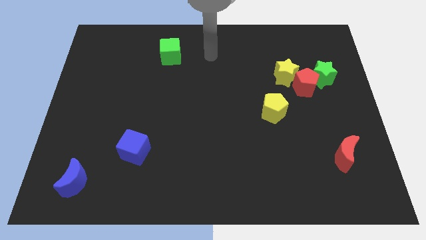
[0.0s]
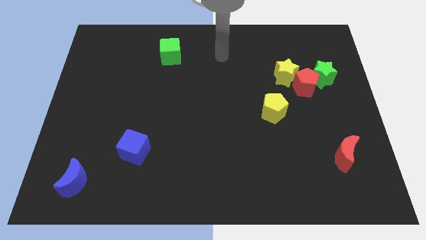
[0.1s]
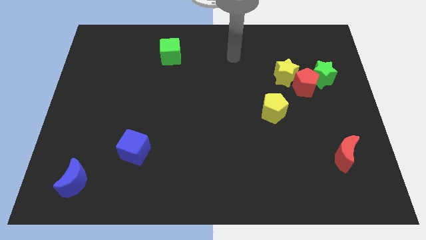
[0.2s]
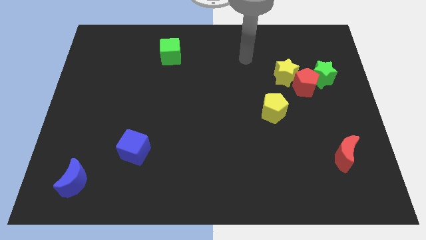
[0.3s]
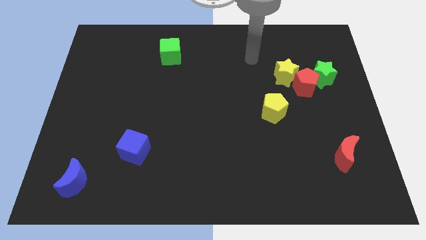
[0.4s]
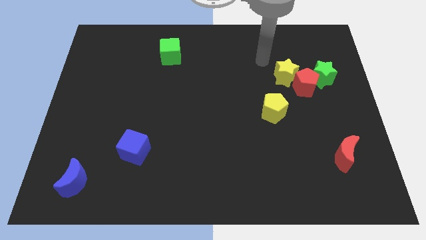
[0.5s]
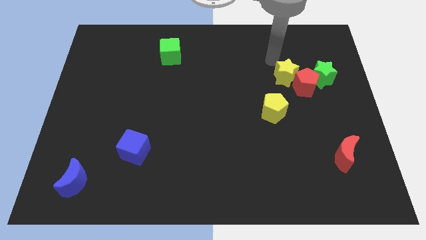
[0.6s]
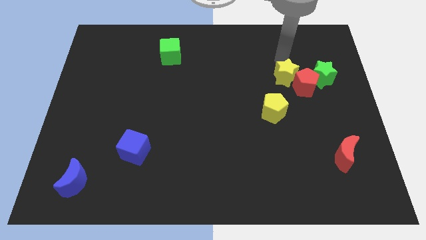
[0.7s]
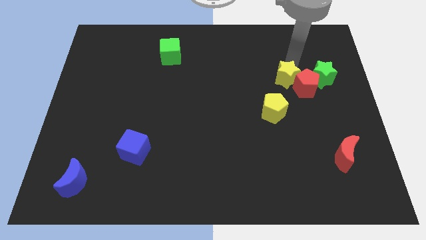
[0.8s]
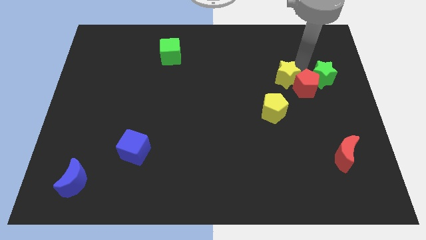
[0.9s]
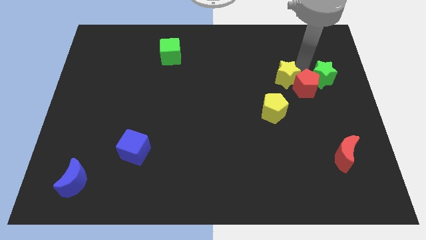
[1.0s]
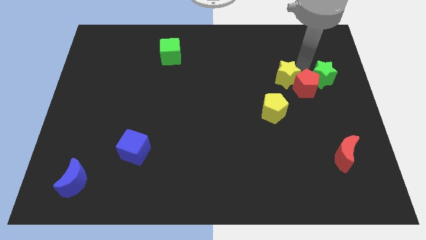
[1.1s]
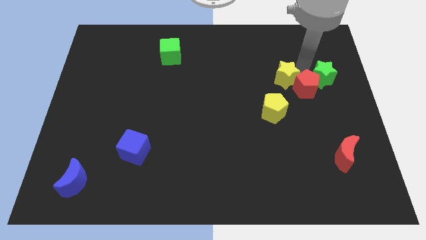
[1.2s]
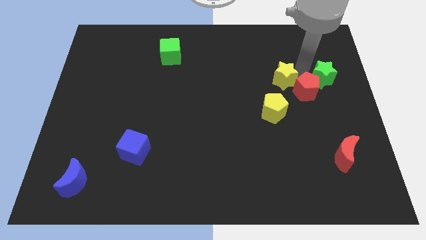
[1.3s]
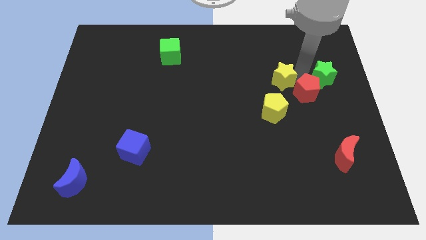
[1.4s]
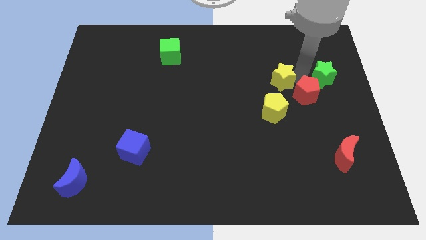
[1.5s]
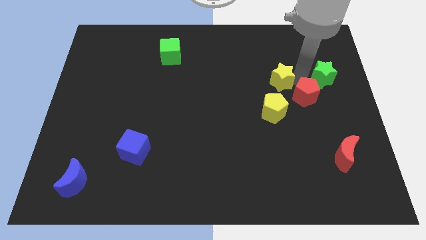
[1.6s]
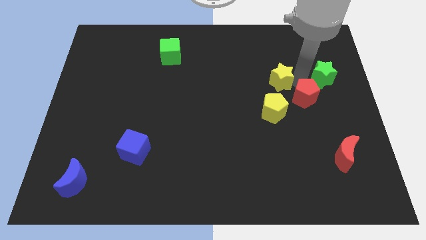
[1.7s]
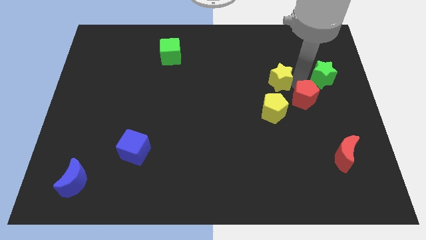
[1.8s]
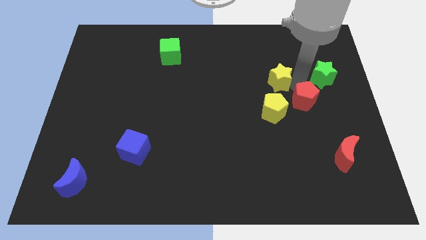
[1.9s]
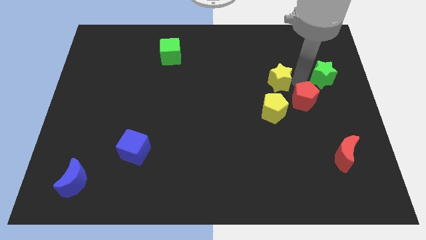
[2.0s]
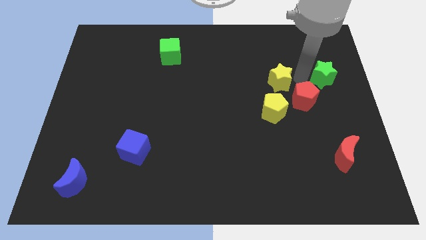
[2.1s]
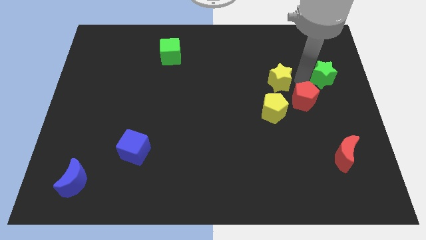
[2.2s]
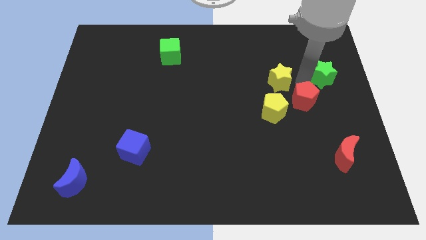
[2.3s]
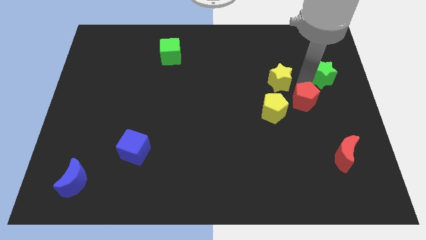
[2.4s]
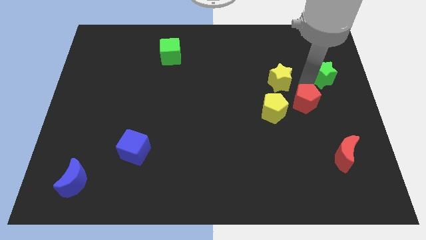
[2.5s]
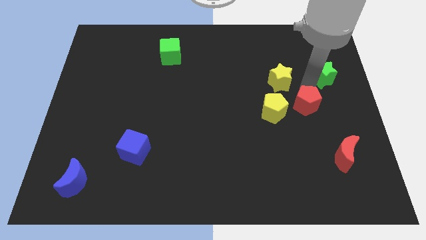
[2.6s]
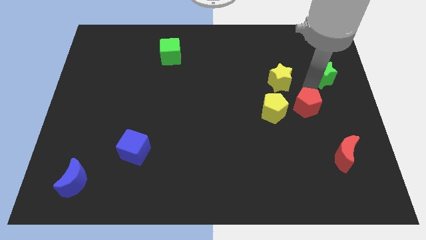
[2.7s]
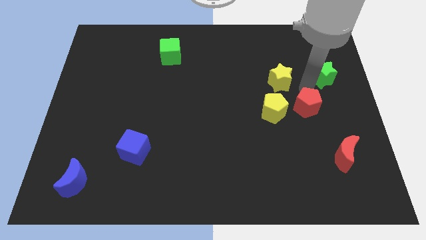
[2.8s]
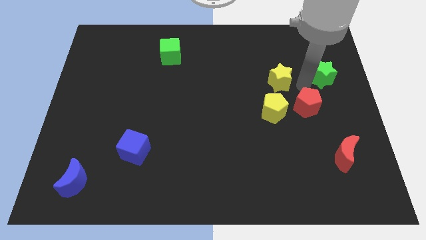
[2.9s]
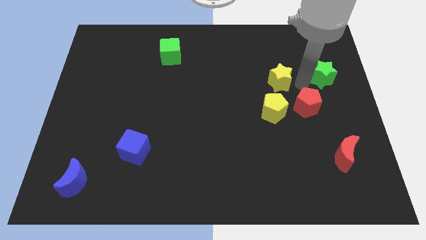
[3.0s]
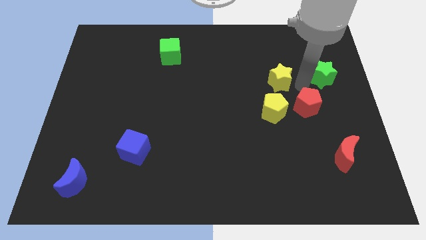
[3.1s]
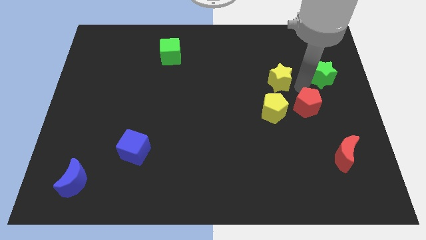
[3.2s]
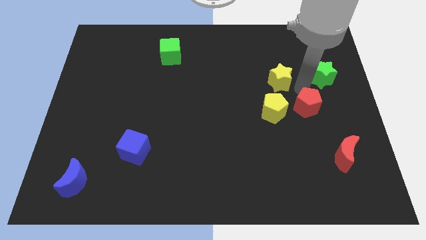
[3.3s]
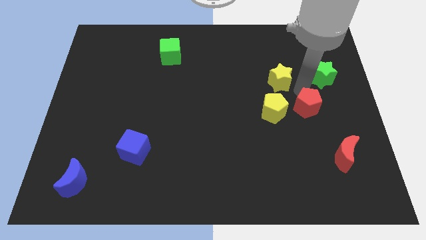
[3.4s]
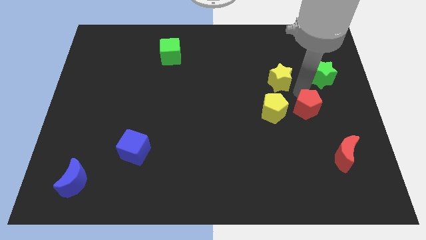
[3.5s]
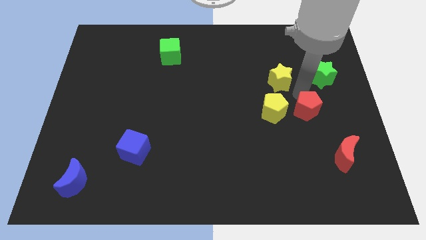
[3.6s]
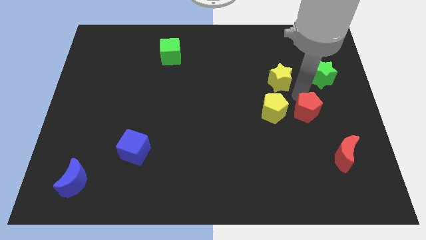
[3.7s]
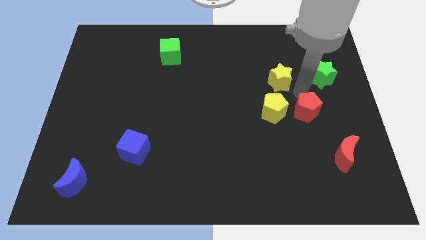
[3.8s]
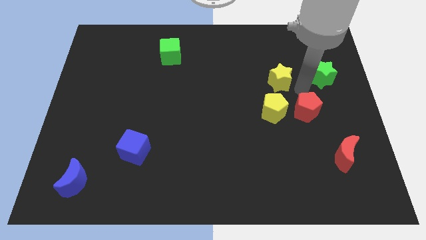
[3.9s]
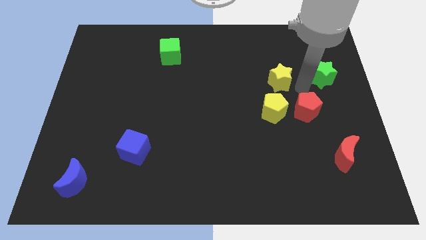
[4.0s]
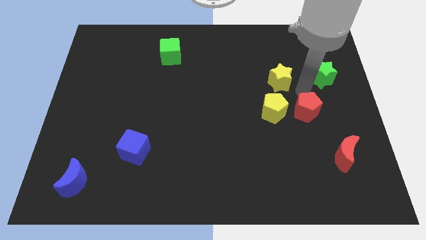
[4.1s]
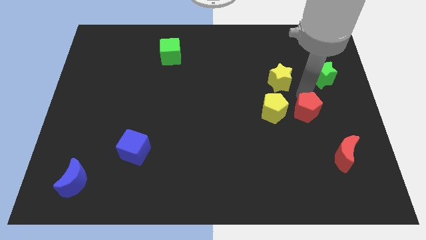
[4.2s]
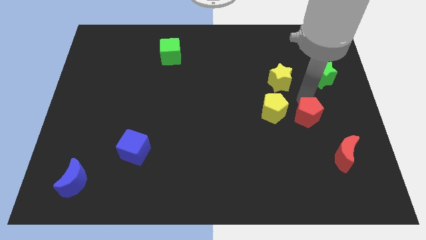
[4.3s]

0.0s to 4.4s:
separate the red pentagon from the green star and yellow star

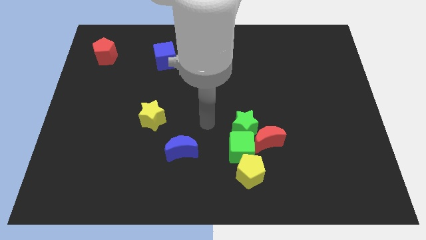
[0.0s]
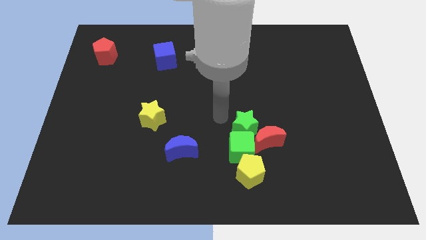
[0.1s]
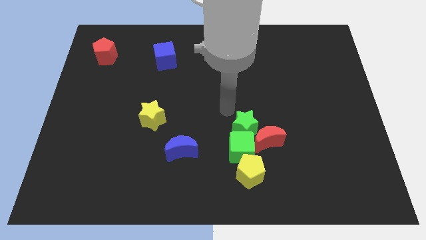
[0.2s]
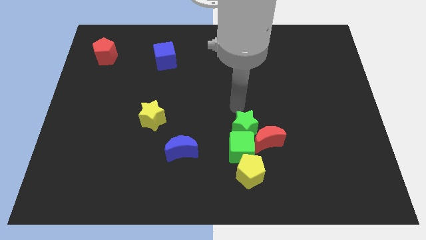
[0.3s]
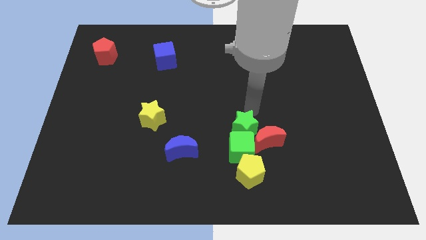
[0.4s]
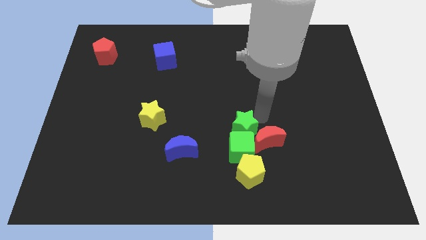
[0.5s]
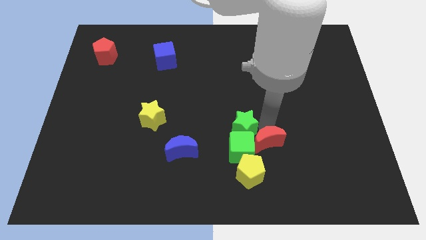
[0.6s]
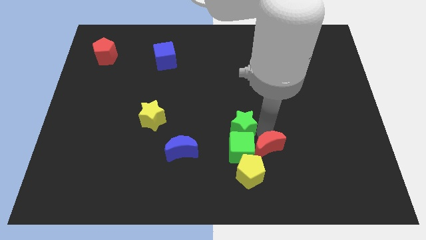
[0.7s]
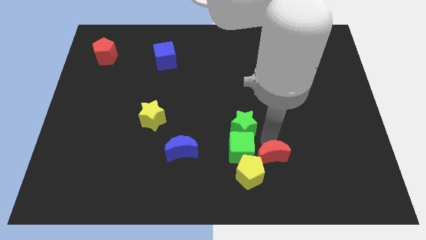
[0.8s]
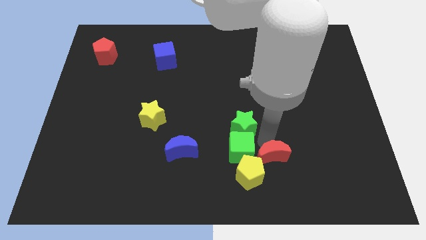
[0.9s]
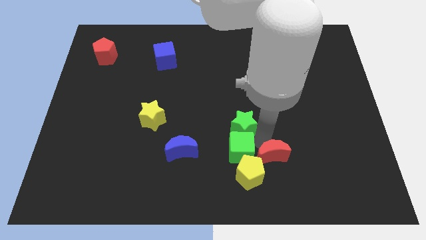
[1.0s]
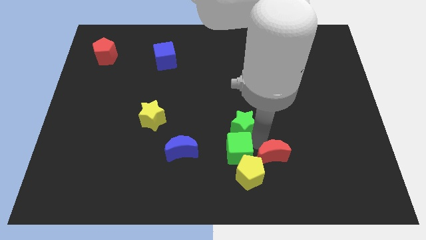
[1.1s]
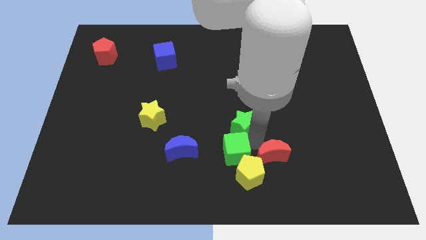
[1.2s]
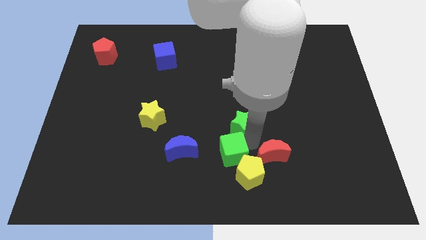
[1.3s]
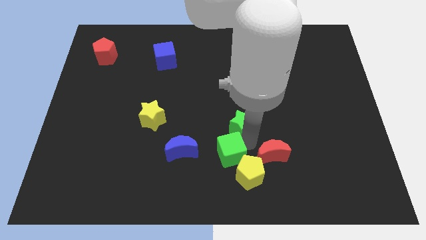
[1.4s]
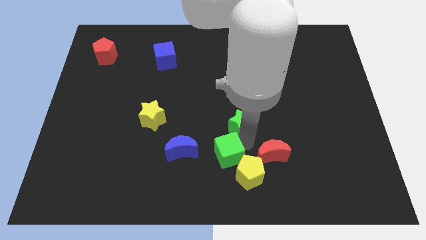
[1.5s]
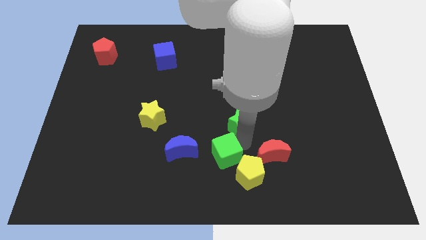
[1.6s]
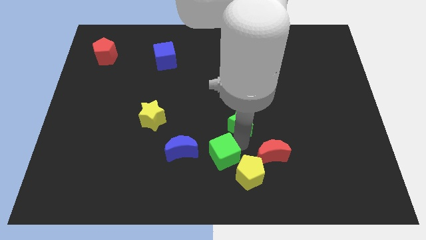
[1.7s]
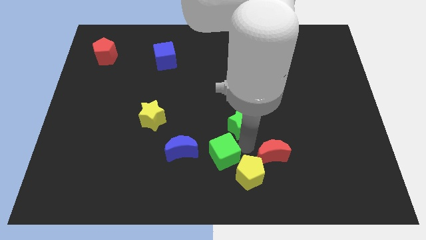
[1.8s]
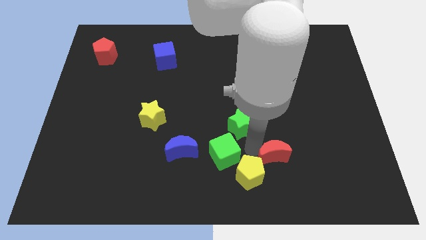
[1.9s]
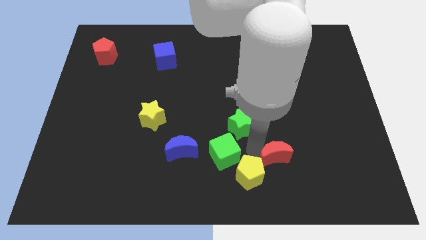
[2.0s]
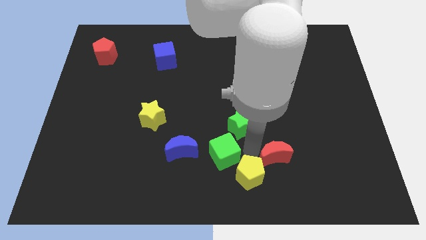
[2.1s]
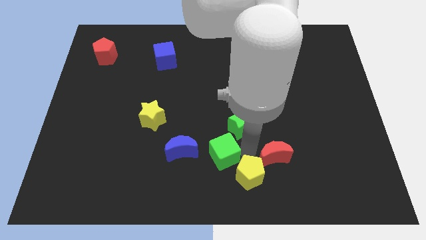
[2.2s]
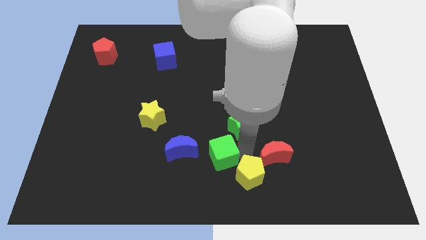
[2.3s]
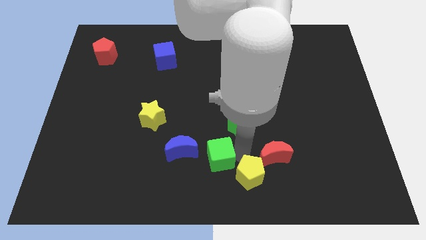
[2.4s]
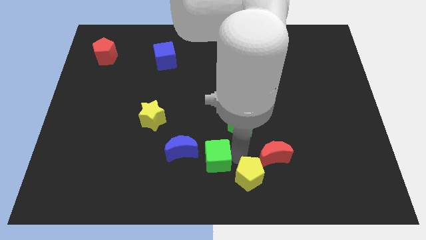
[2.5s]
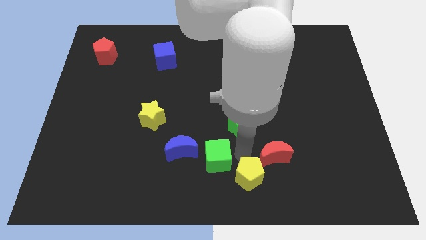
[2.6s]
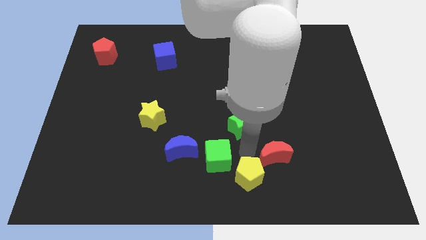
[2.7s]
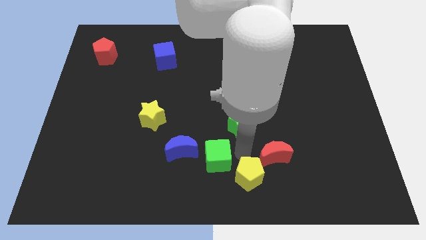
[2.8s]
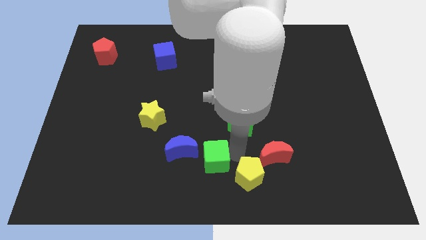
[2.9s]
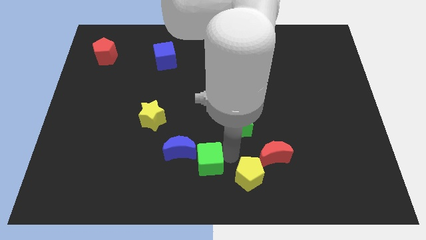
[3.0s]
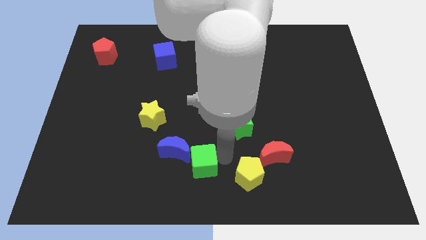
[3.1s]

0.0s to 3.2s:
separate the green cube from the yellow pentagon, green star, and red moon

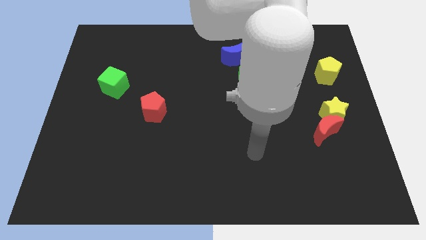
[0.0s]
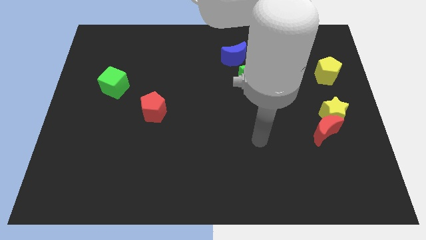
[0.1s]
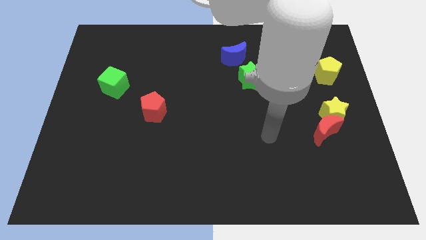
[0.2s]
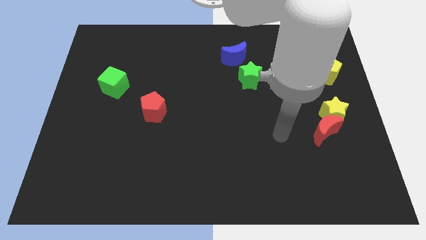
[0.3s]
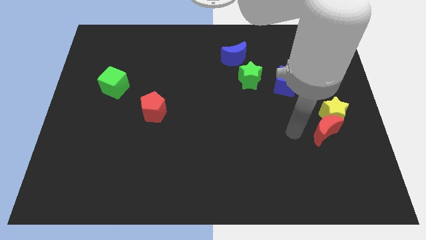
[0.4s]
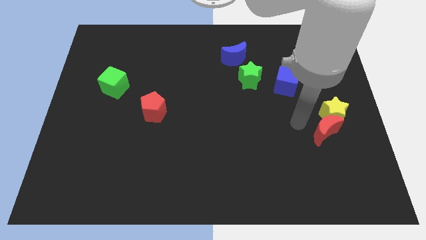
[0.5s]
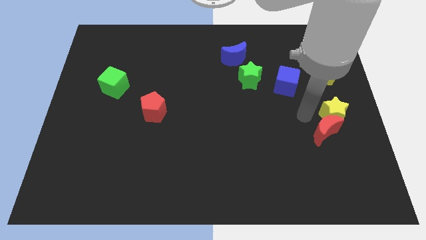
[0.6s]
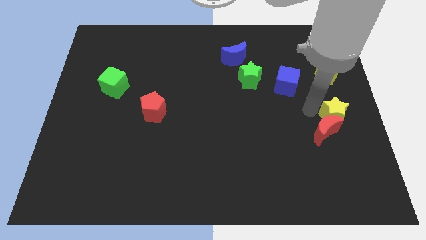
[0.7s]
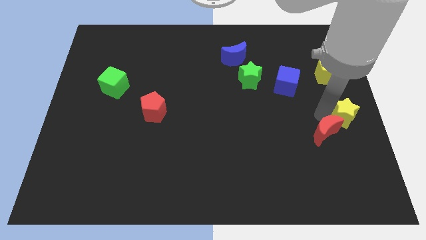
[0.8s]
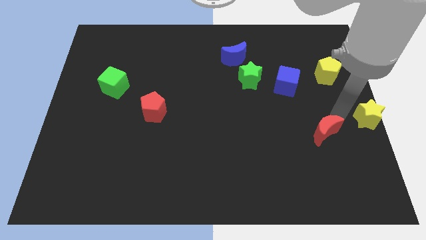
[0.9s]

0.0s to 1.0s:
separate the red moon from the yellow star

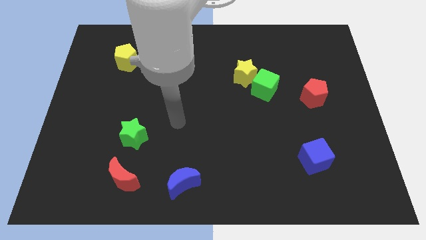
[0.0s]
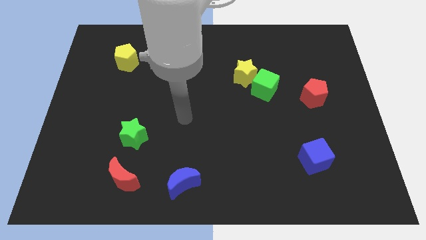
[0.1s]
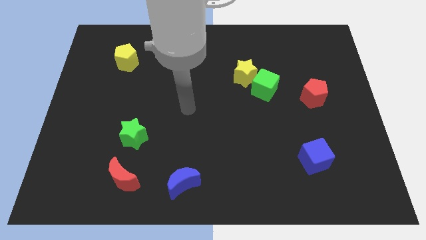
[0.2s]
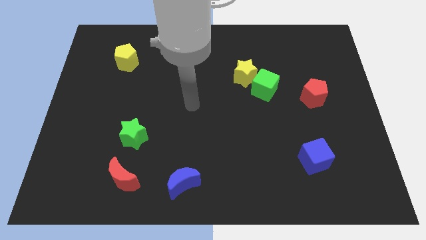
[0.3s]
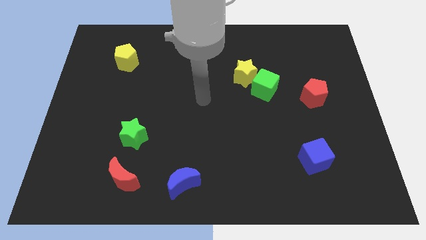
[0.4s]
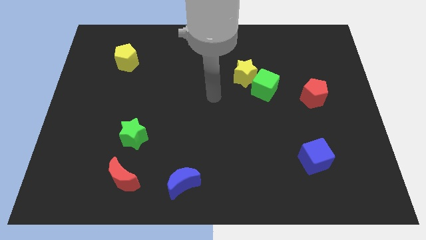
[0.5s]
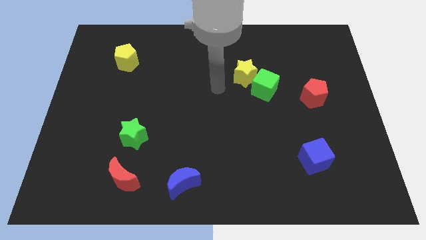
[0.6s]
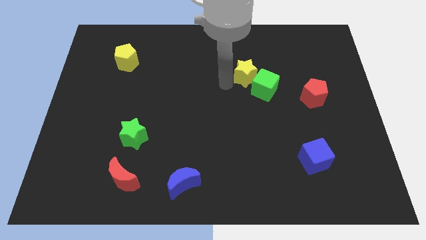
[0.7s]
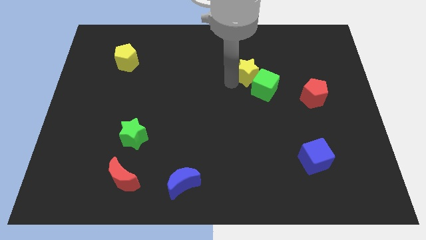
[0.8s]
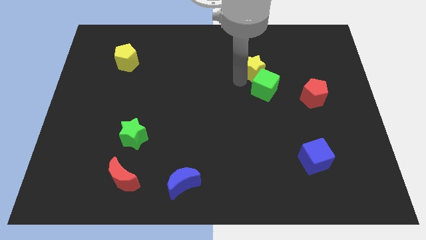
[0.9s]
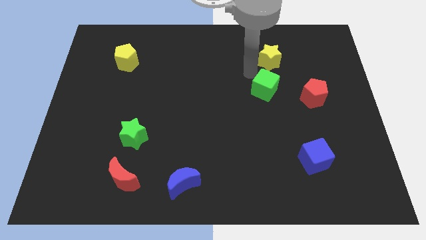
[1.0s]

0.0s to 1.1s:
separate the green cube from the yellow star
